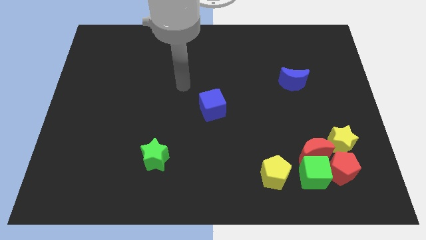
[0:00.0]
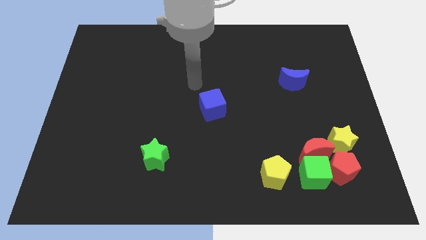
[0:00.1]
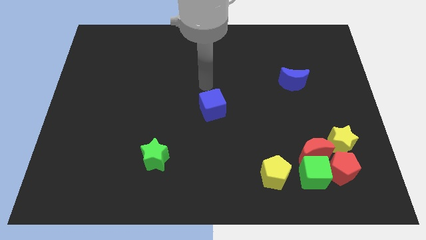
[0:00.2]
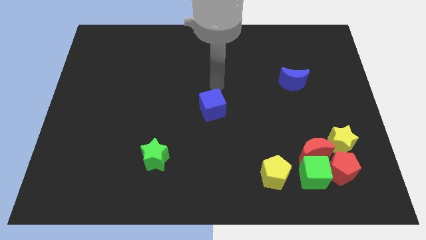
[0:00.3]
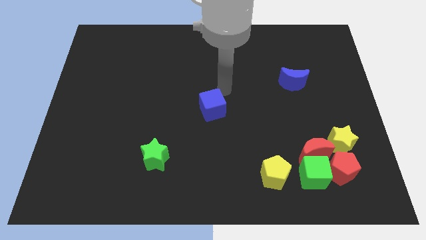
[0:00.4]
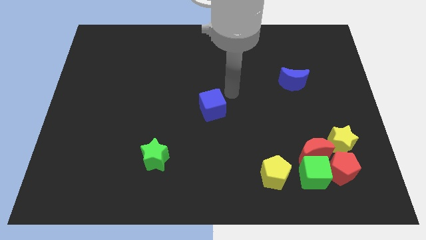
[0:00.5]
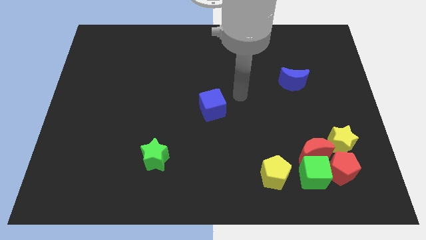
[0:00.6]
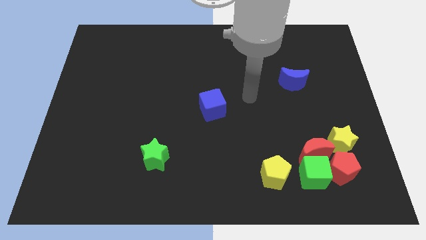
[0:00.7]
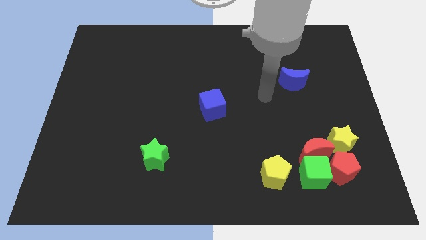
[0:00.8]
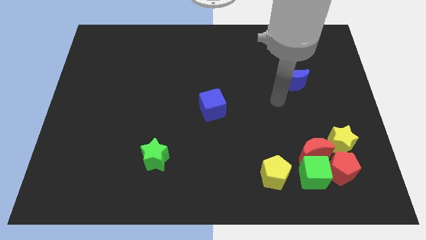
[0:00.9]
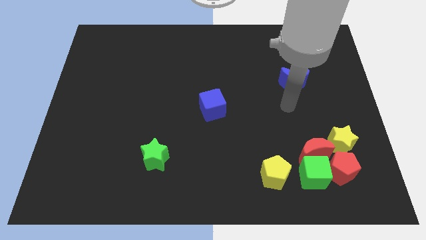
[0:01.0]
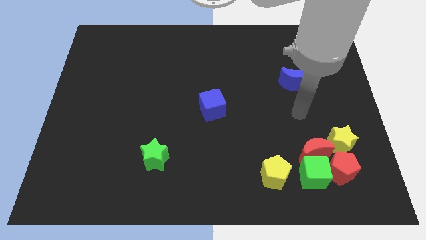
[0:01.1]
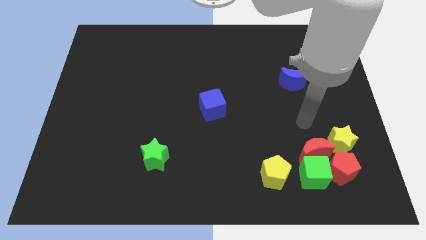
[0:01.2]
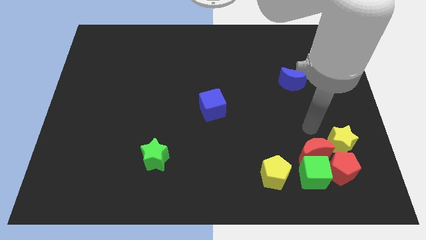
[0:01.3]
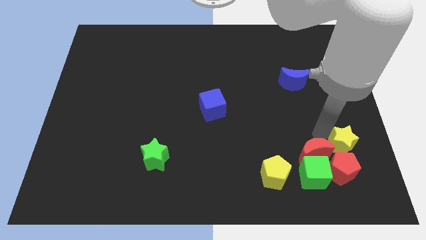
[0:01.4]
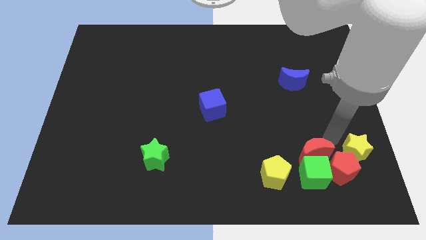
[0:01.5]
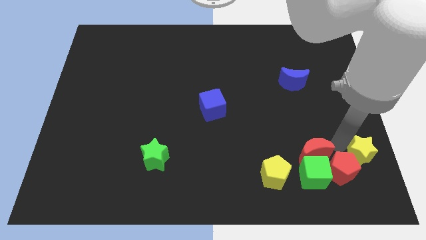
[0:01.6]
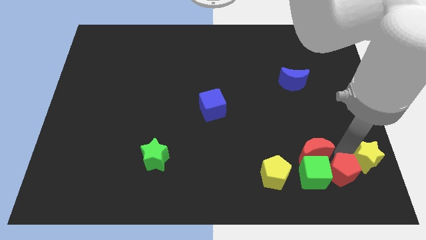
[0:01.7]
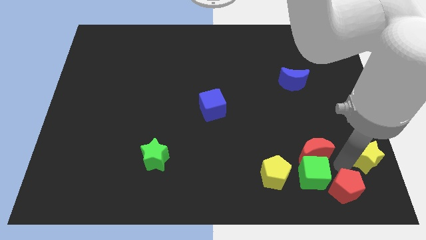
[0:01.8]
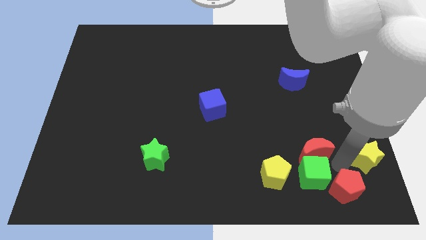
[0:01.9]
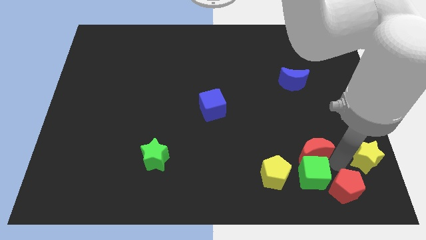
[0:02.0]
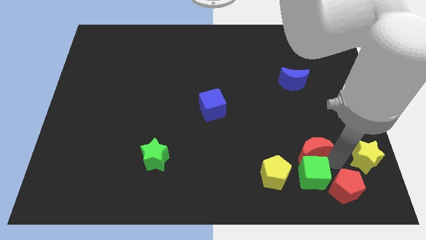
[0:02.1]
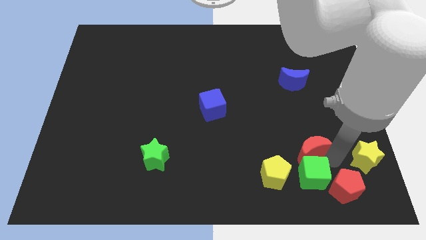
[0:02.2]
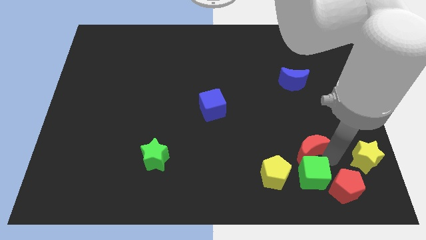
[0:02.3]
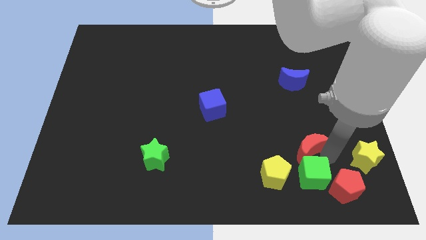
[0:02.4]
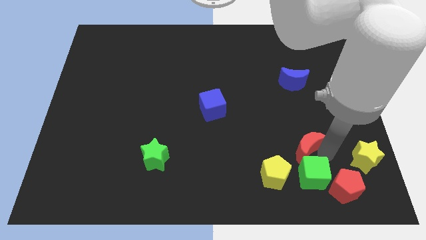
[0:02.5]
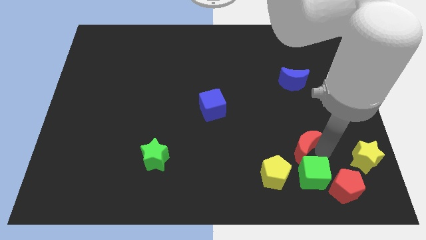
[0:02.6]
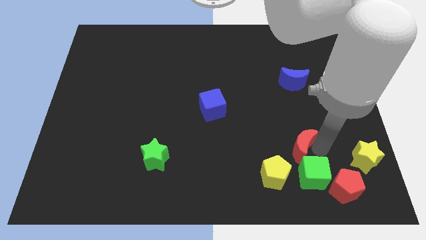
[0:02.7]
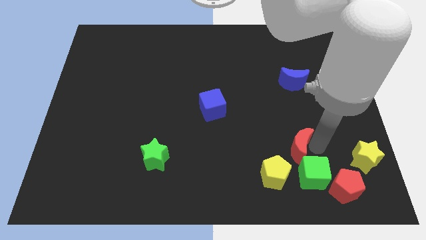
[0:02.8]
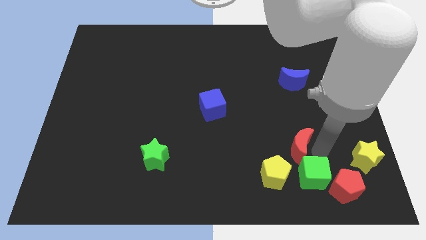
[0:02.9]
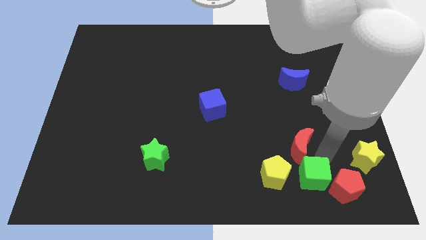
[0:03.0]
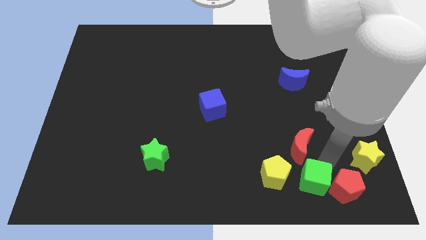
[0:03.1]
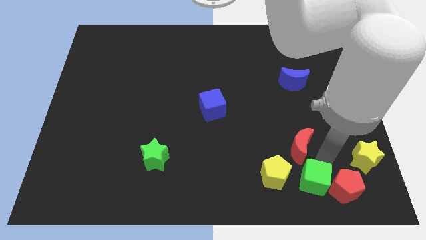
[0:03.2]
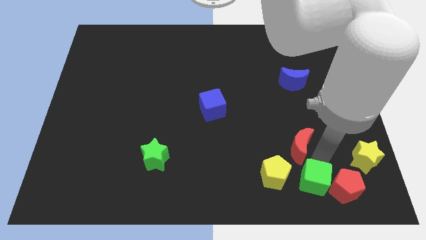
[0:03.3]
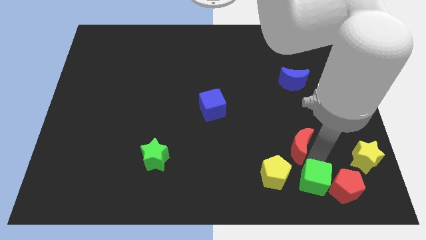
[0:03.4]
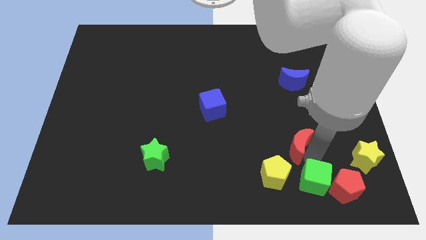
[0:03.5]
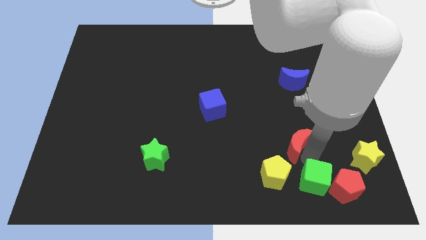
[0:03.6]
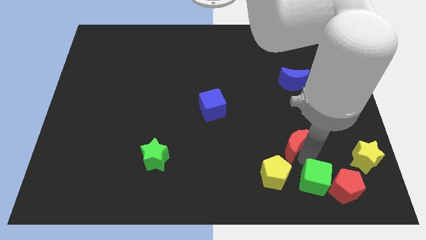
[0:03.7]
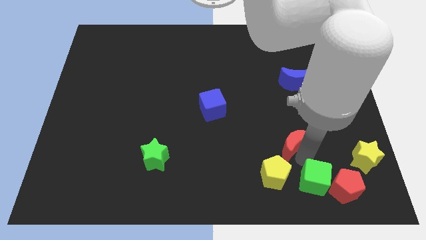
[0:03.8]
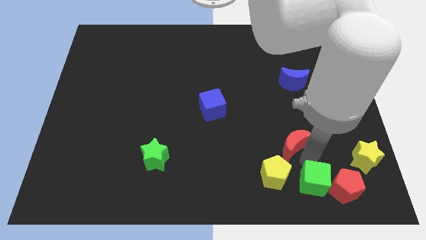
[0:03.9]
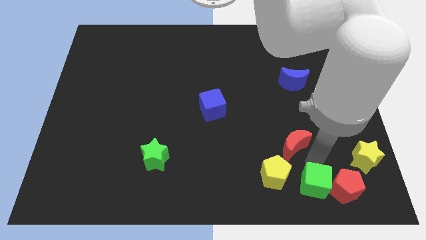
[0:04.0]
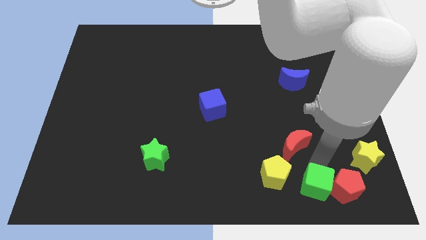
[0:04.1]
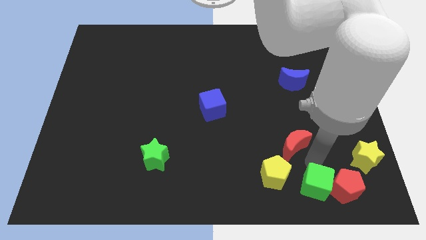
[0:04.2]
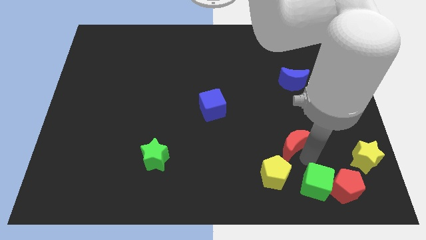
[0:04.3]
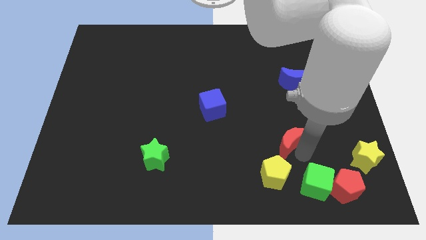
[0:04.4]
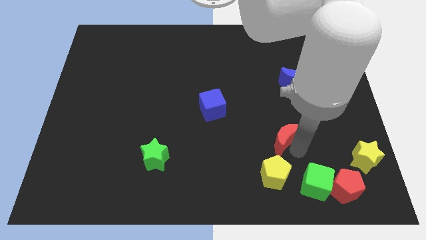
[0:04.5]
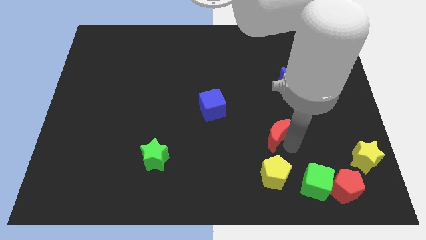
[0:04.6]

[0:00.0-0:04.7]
slightly slide the red moon up and to the left

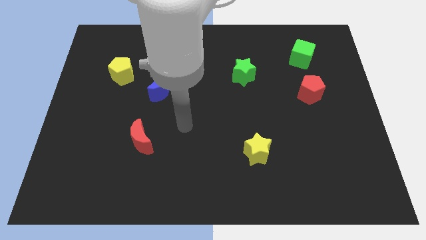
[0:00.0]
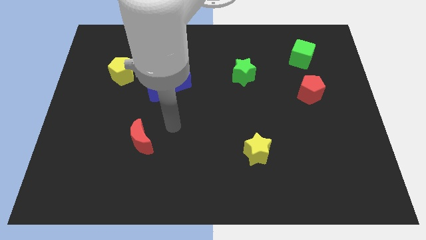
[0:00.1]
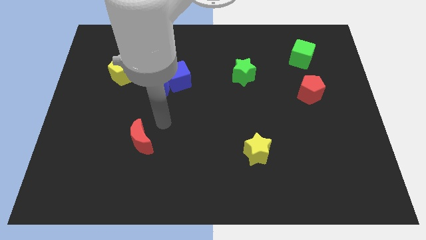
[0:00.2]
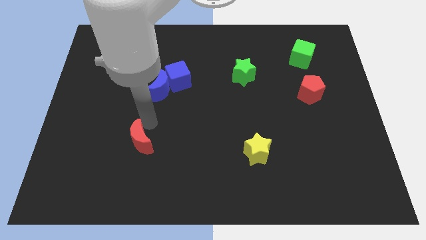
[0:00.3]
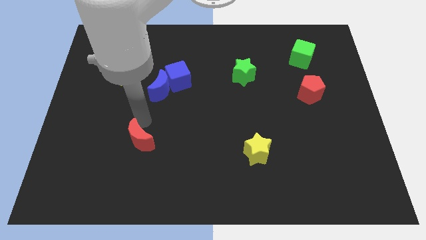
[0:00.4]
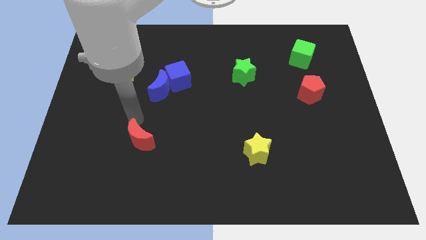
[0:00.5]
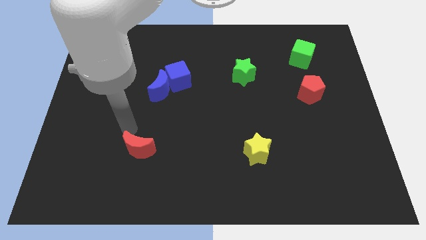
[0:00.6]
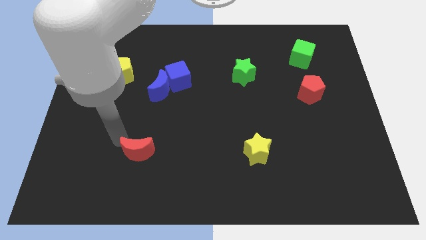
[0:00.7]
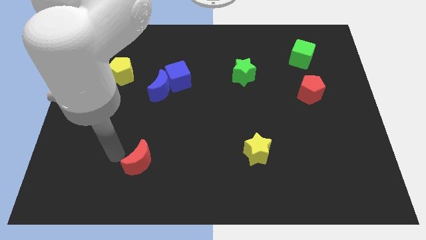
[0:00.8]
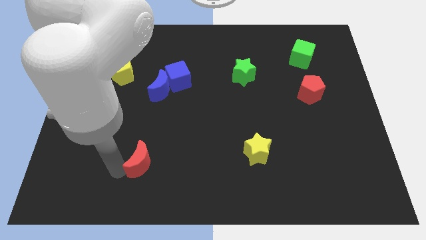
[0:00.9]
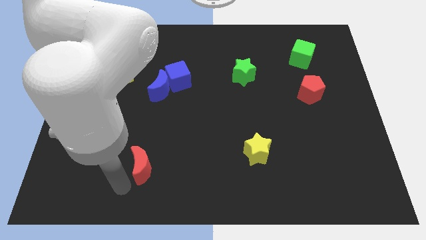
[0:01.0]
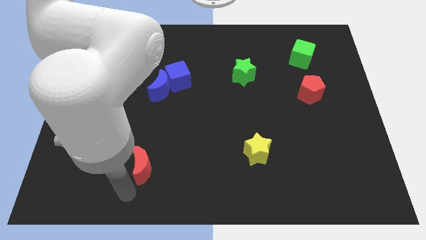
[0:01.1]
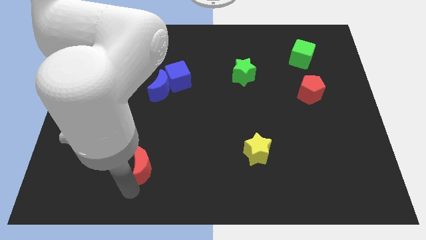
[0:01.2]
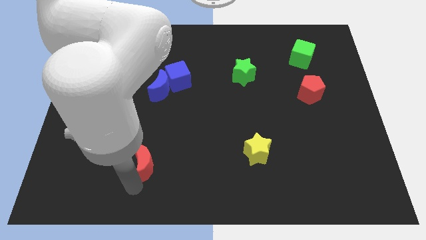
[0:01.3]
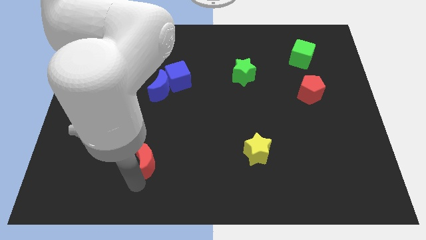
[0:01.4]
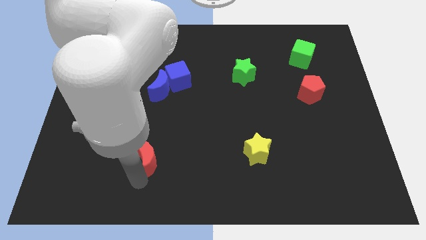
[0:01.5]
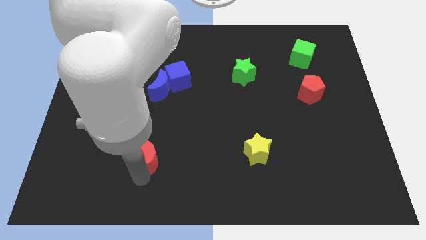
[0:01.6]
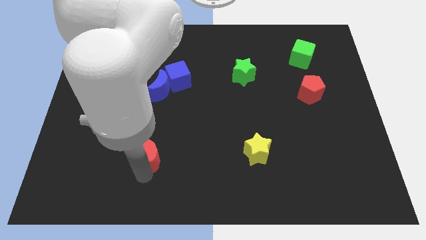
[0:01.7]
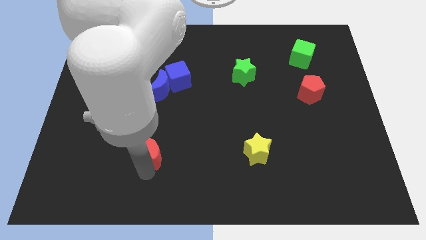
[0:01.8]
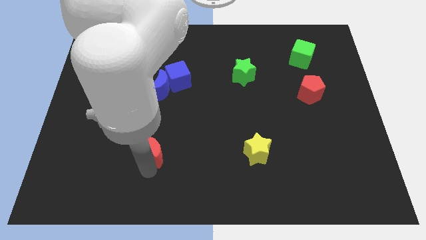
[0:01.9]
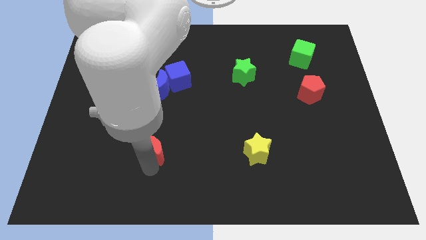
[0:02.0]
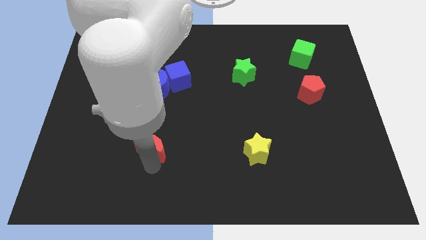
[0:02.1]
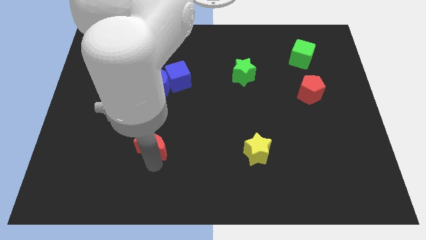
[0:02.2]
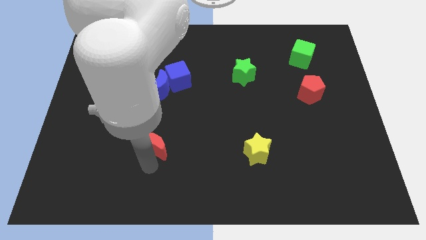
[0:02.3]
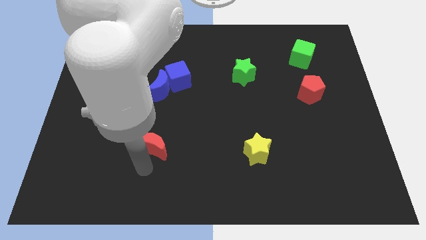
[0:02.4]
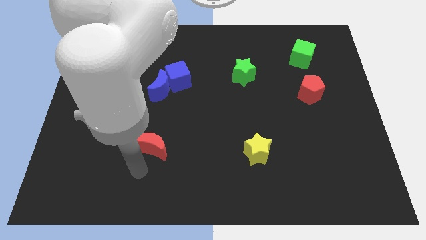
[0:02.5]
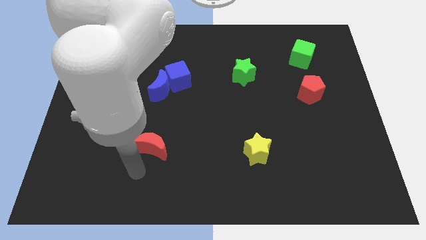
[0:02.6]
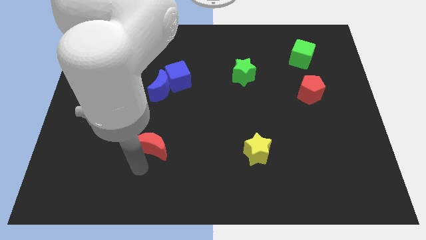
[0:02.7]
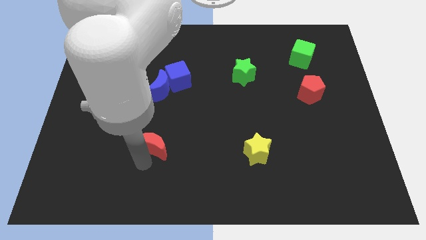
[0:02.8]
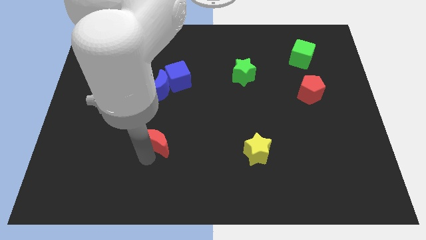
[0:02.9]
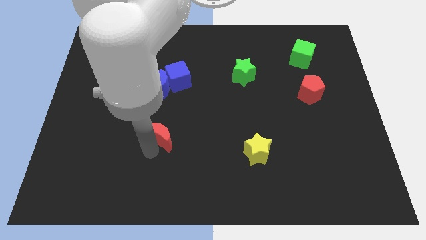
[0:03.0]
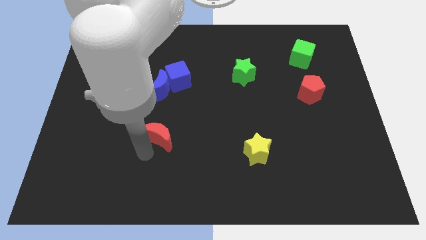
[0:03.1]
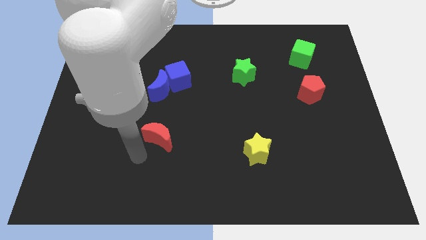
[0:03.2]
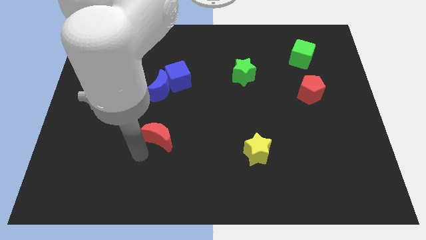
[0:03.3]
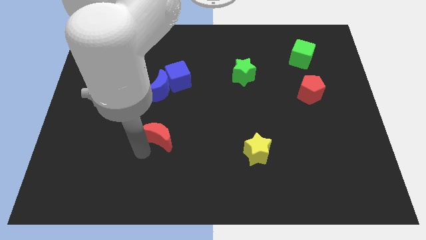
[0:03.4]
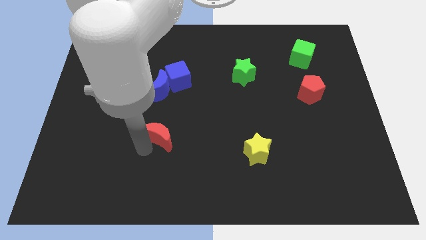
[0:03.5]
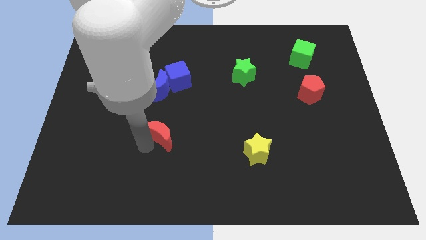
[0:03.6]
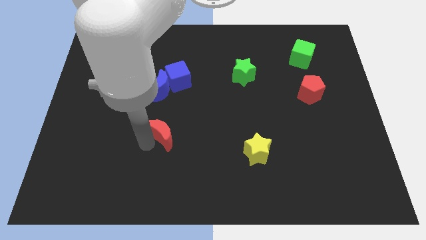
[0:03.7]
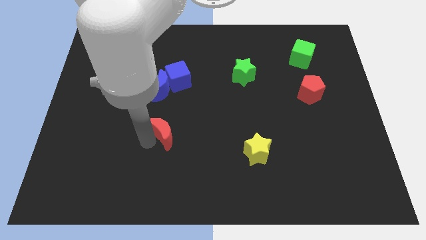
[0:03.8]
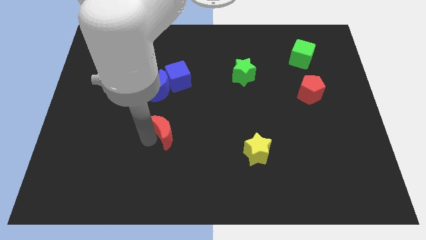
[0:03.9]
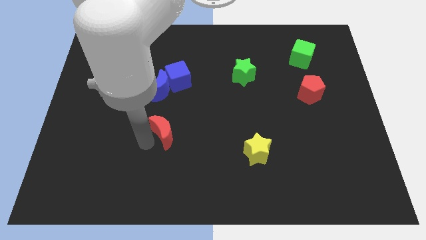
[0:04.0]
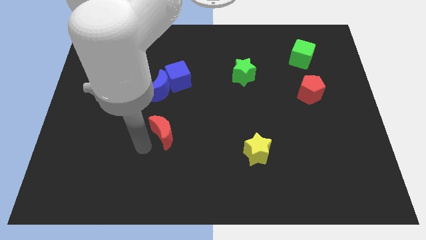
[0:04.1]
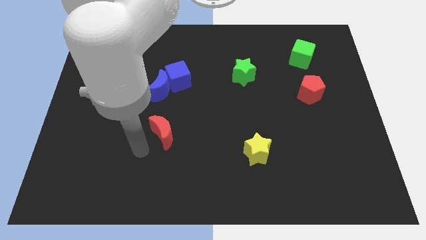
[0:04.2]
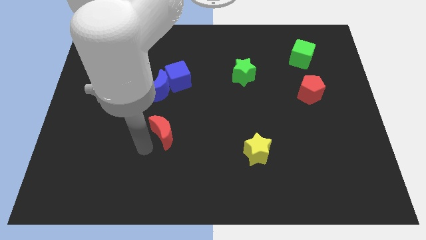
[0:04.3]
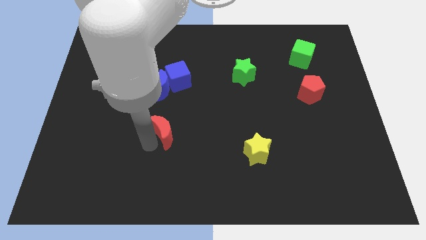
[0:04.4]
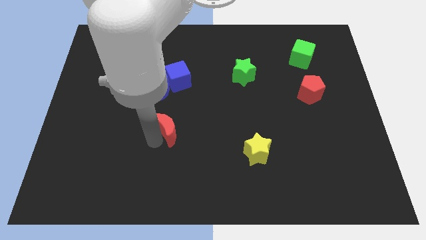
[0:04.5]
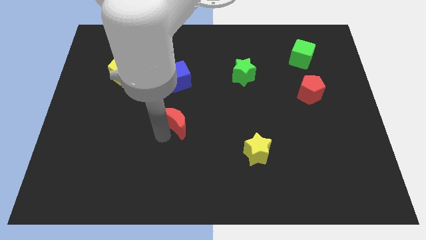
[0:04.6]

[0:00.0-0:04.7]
slightly push the red moon upwards and then right
